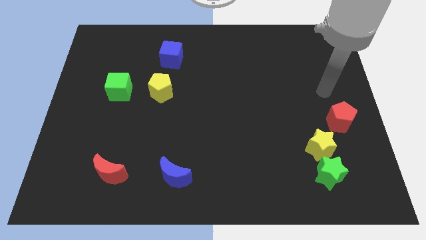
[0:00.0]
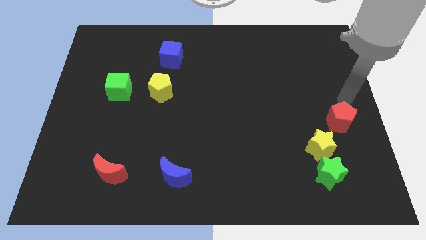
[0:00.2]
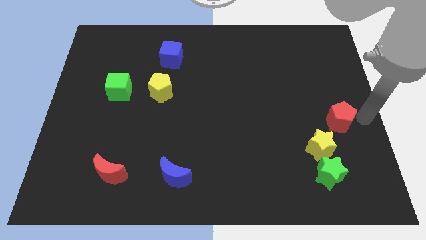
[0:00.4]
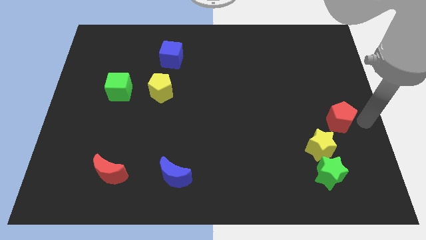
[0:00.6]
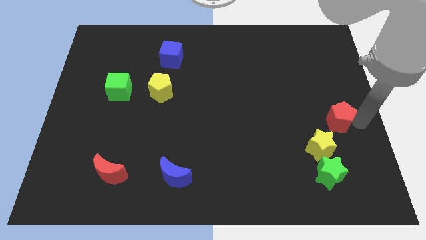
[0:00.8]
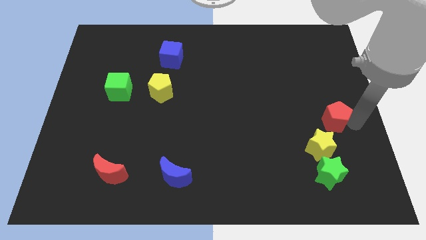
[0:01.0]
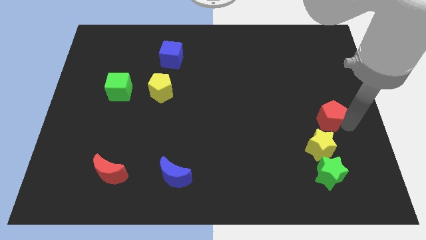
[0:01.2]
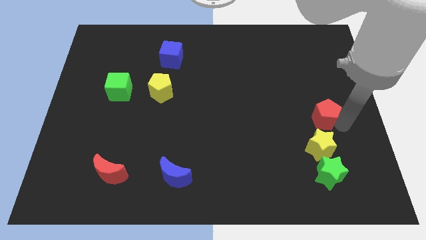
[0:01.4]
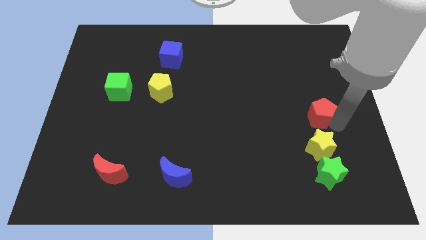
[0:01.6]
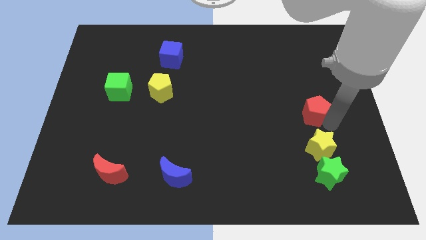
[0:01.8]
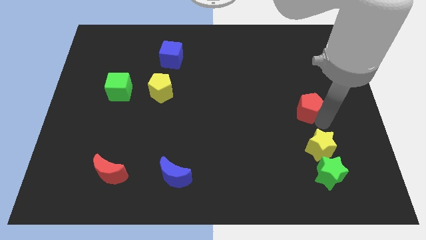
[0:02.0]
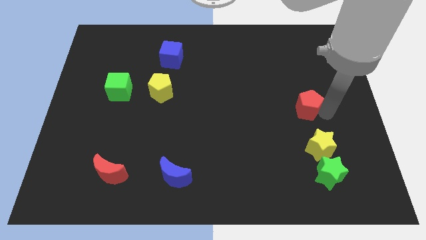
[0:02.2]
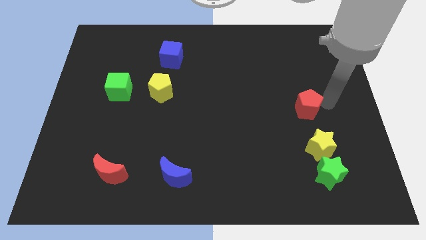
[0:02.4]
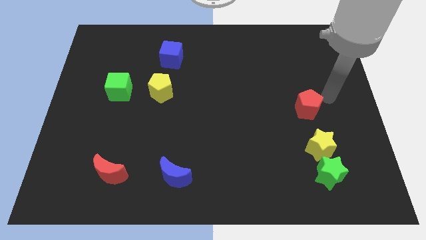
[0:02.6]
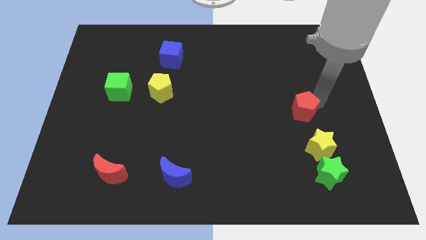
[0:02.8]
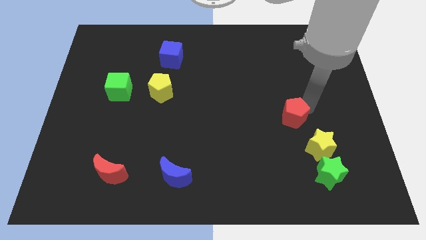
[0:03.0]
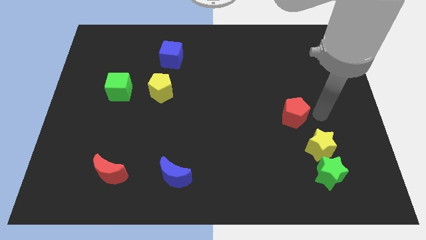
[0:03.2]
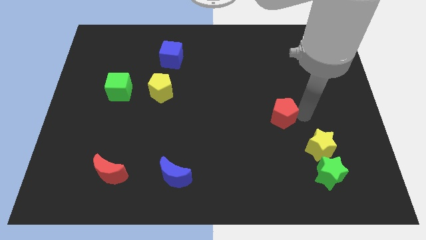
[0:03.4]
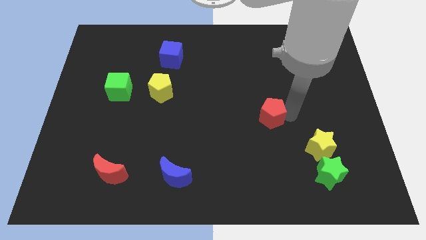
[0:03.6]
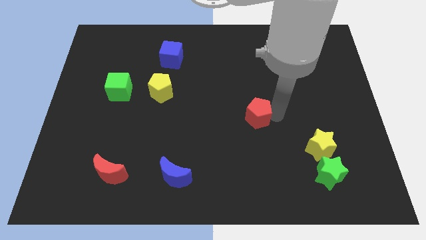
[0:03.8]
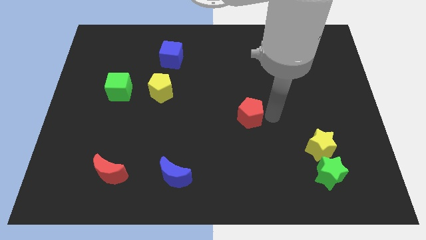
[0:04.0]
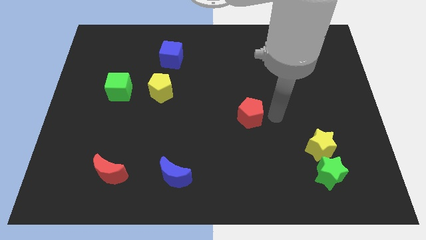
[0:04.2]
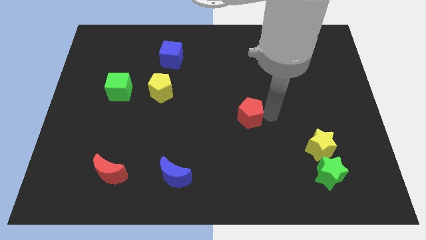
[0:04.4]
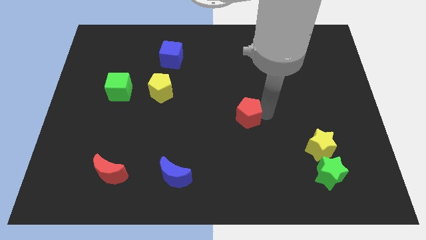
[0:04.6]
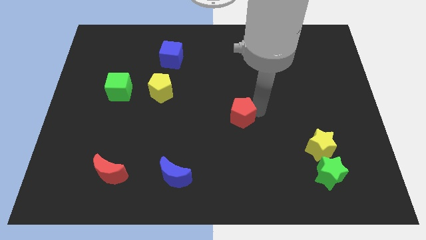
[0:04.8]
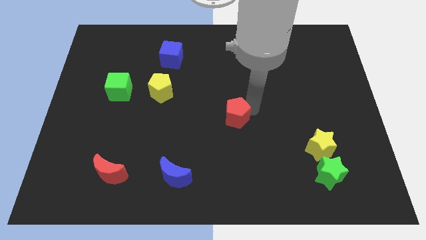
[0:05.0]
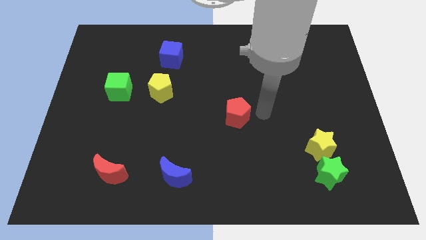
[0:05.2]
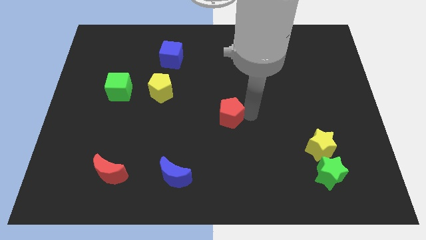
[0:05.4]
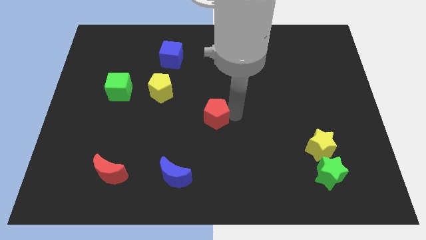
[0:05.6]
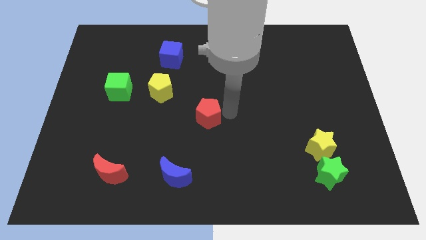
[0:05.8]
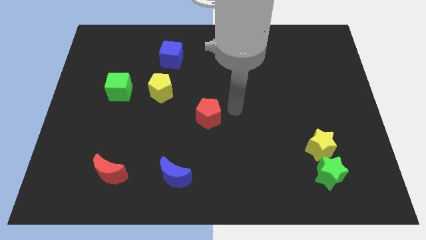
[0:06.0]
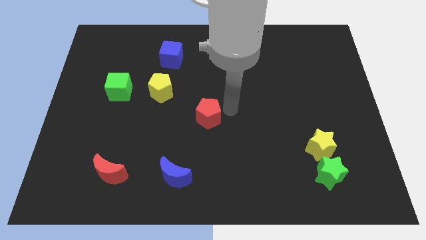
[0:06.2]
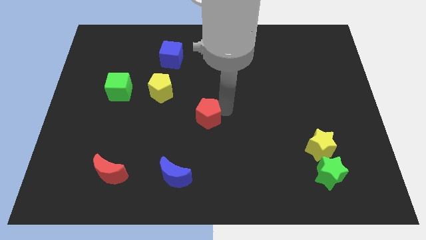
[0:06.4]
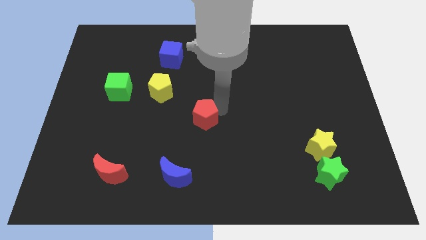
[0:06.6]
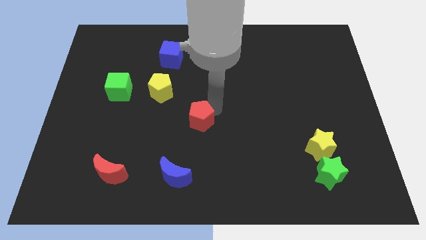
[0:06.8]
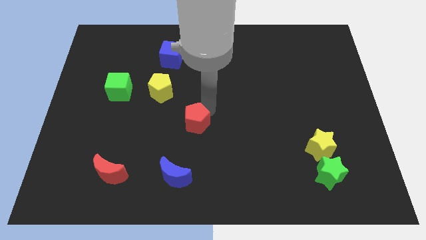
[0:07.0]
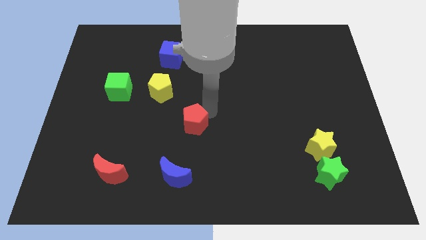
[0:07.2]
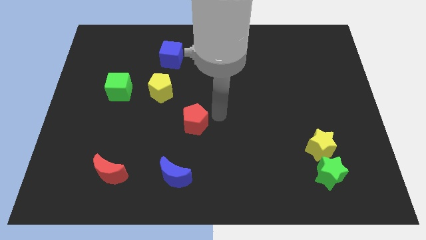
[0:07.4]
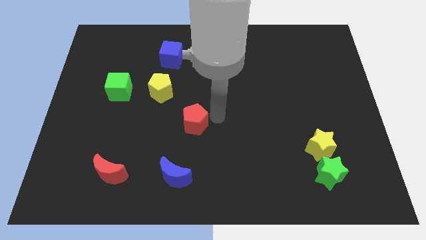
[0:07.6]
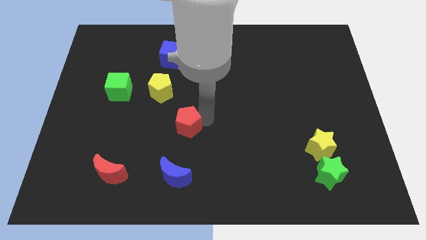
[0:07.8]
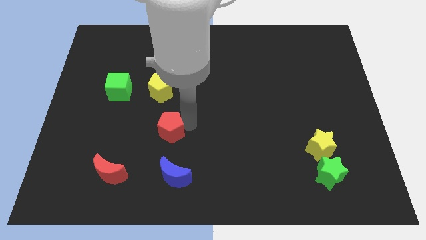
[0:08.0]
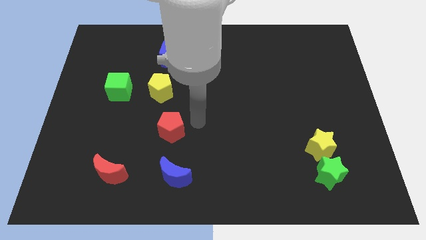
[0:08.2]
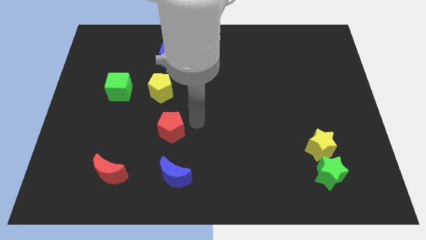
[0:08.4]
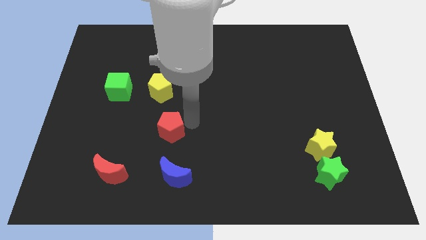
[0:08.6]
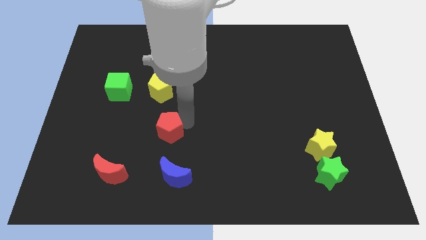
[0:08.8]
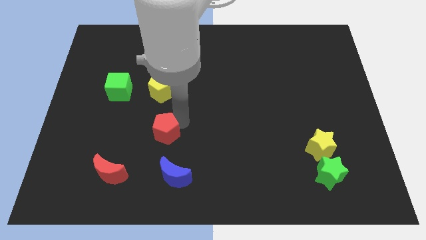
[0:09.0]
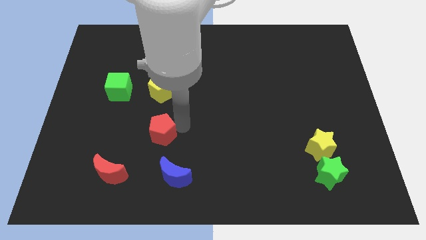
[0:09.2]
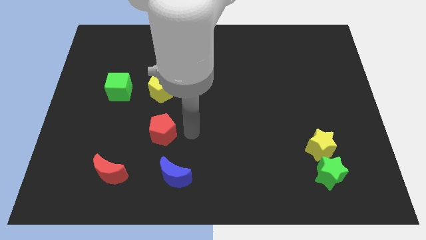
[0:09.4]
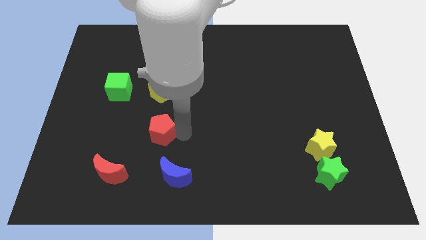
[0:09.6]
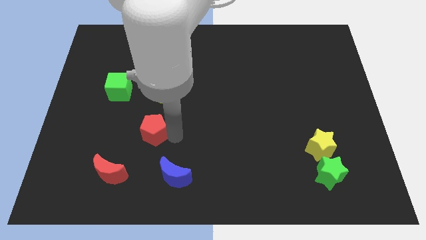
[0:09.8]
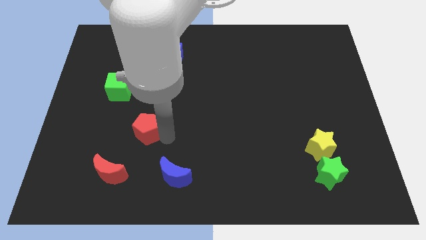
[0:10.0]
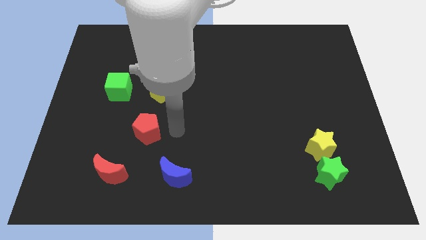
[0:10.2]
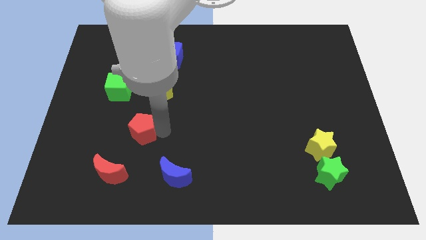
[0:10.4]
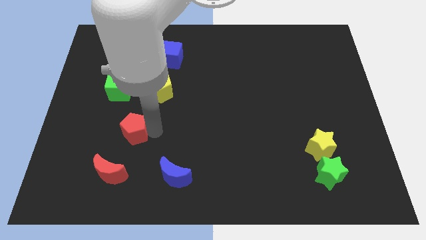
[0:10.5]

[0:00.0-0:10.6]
slide the red pentagon to the top side of the red moon

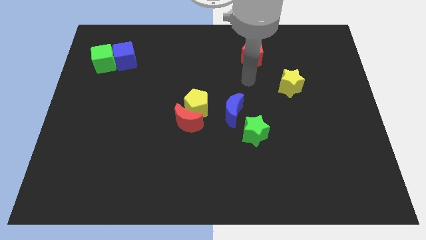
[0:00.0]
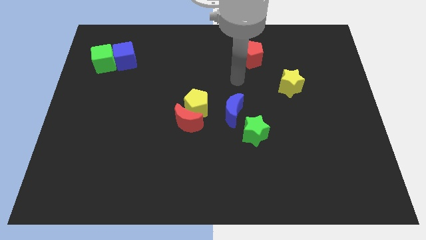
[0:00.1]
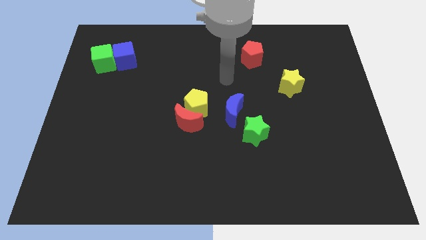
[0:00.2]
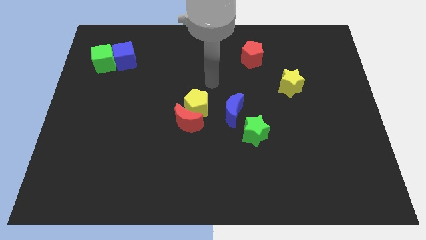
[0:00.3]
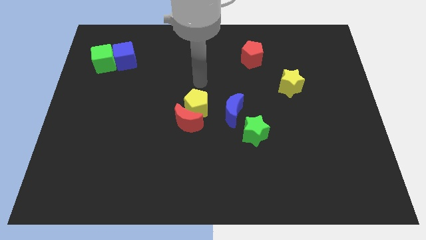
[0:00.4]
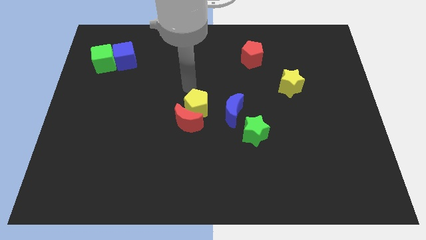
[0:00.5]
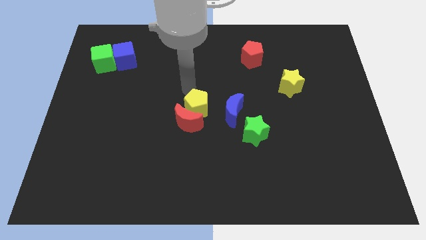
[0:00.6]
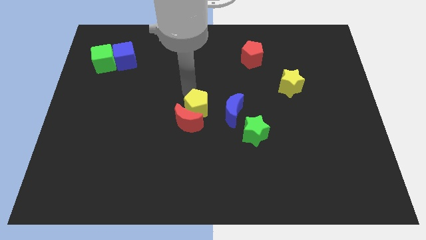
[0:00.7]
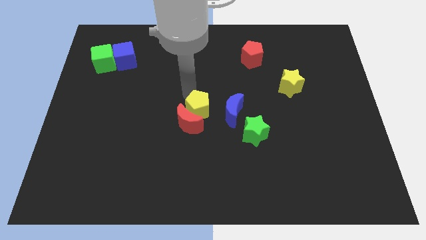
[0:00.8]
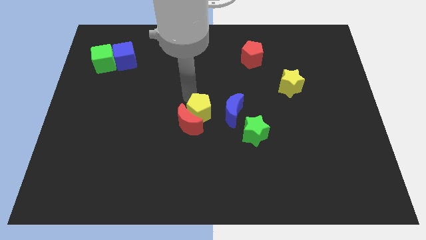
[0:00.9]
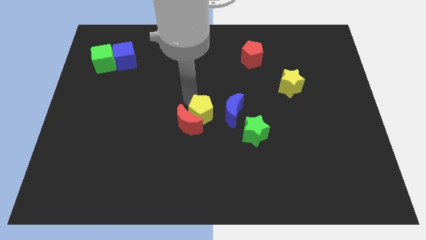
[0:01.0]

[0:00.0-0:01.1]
push the yellow pentagon to the bottom left side of the blue moon

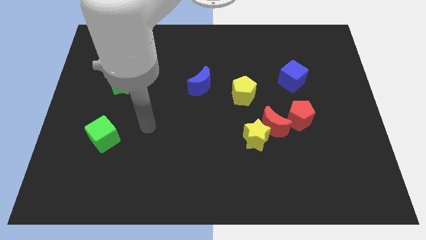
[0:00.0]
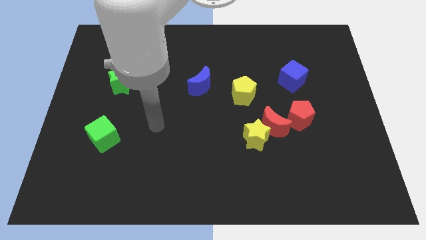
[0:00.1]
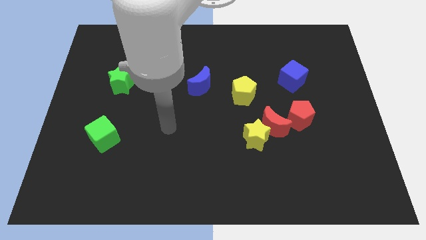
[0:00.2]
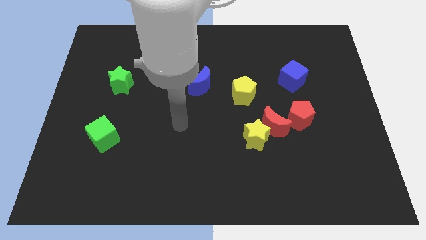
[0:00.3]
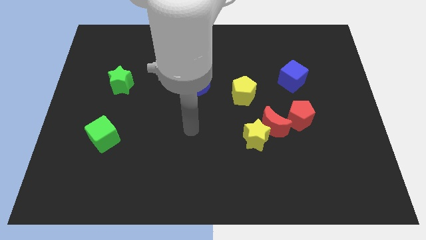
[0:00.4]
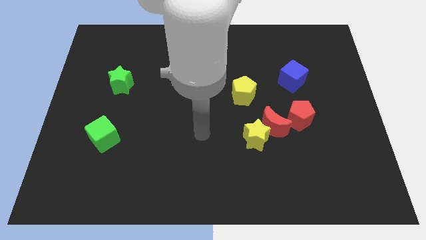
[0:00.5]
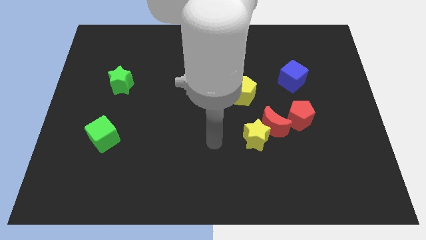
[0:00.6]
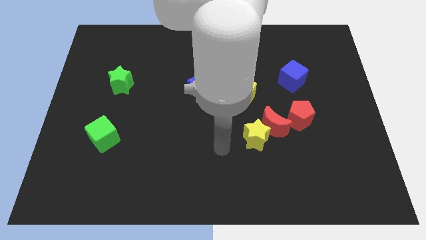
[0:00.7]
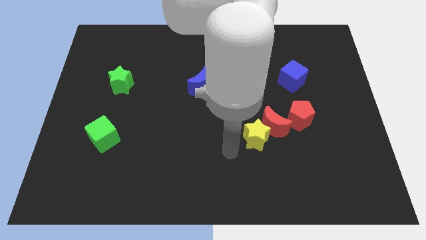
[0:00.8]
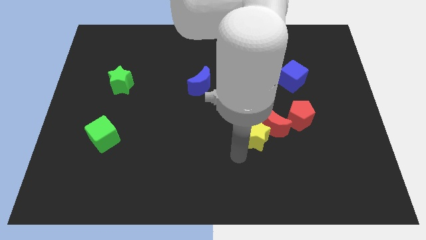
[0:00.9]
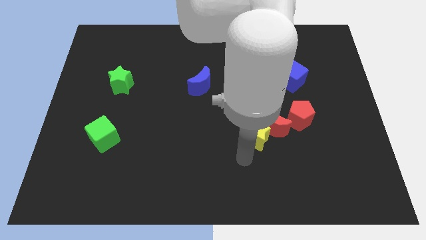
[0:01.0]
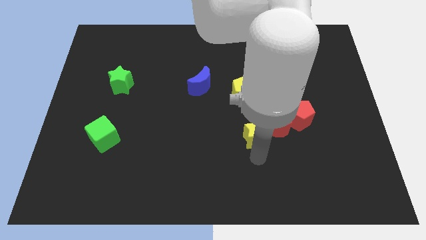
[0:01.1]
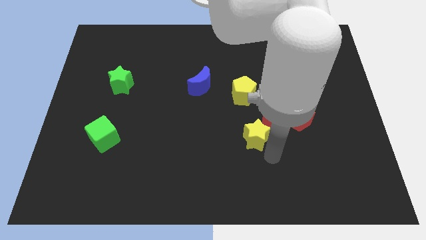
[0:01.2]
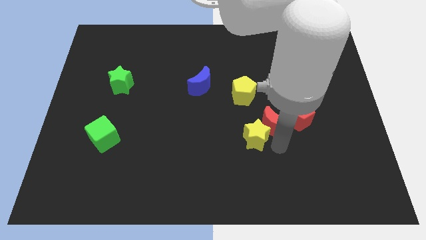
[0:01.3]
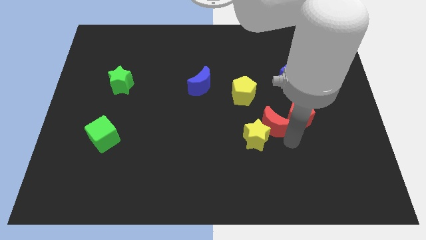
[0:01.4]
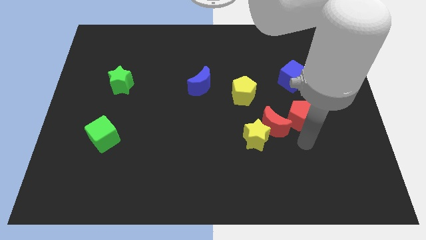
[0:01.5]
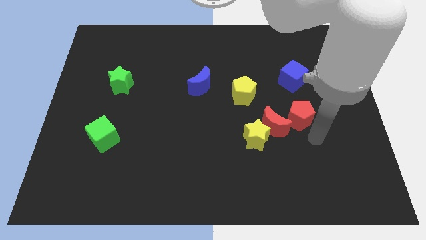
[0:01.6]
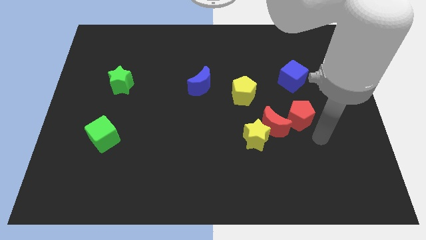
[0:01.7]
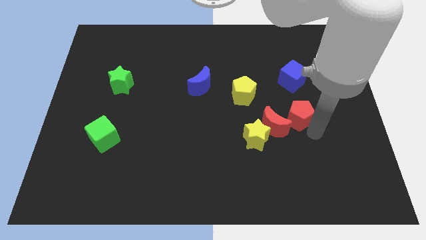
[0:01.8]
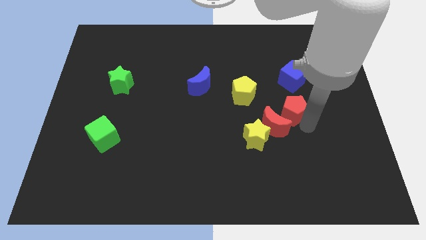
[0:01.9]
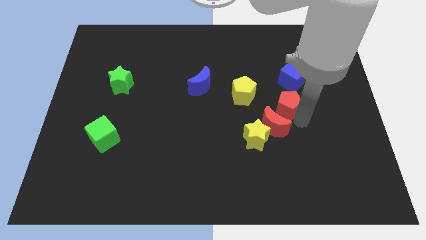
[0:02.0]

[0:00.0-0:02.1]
slide the red pentagon to the bottom left of the blue cube
